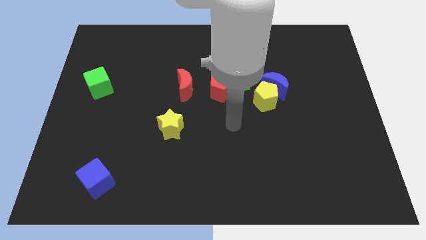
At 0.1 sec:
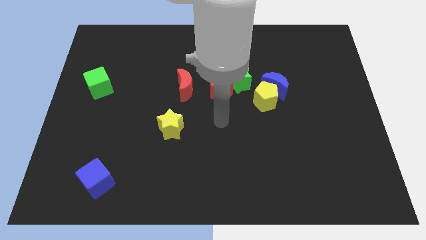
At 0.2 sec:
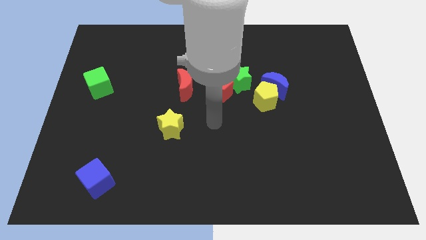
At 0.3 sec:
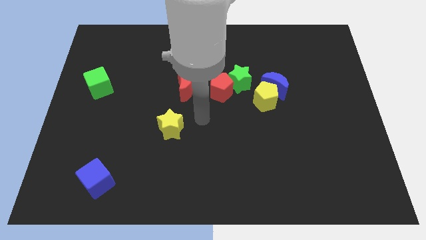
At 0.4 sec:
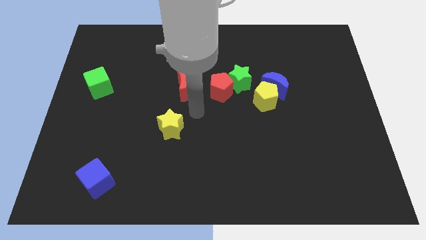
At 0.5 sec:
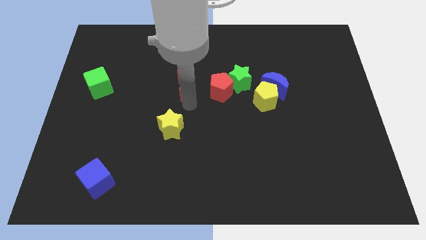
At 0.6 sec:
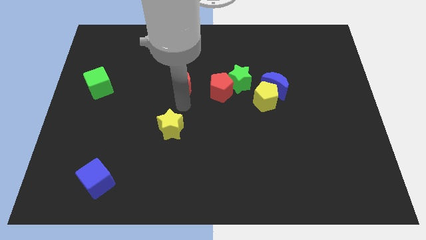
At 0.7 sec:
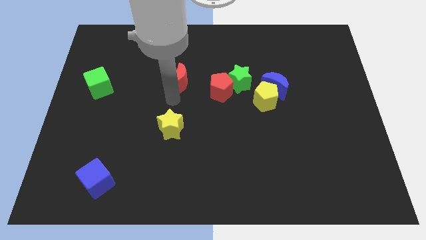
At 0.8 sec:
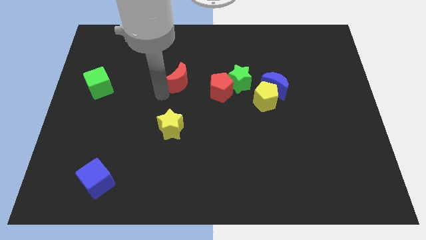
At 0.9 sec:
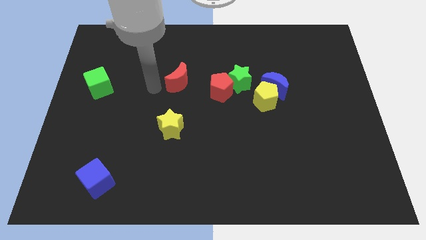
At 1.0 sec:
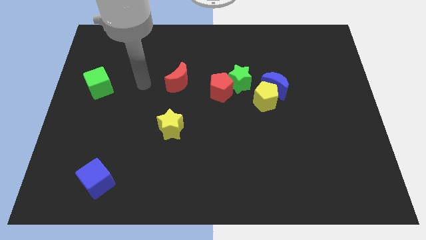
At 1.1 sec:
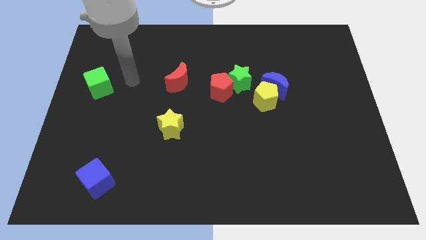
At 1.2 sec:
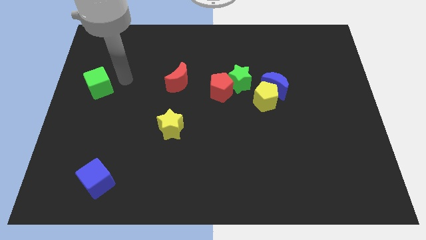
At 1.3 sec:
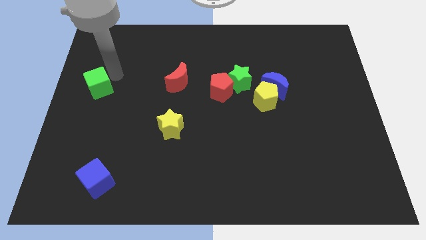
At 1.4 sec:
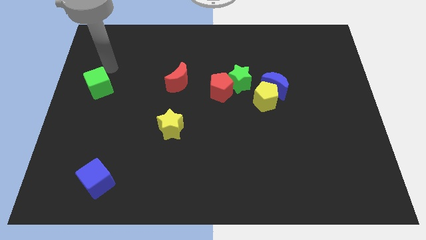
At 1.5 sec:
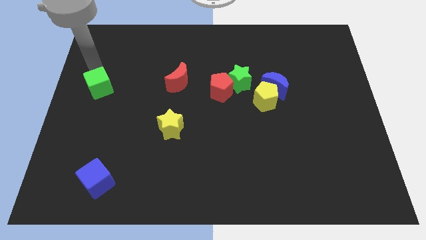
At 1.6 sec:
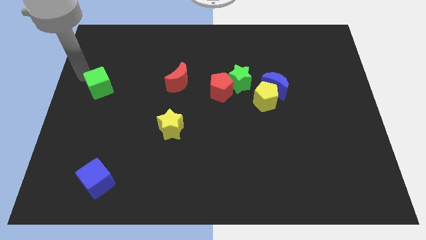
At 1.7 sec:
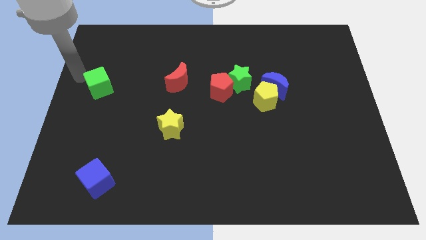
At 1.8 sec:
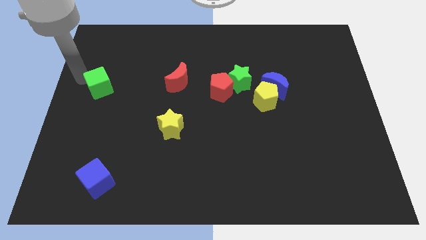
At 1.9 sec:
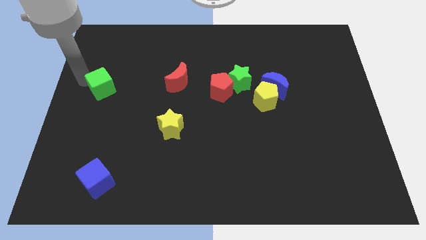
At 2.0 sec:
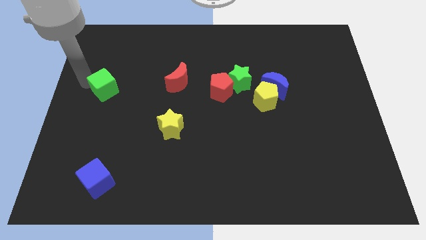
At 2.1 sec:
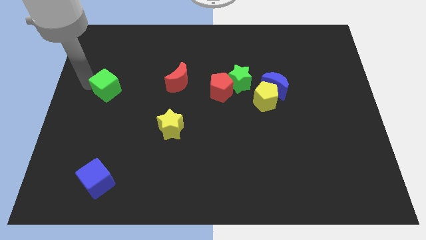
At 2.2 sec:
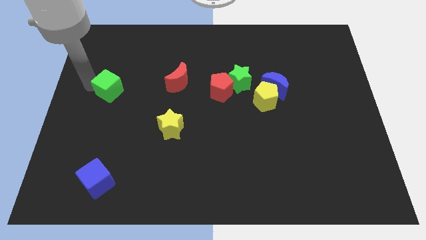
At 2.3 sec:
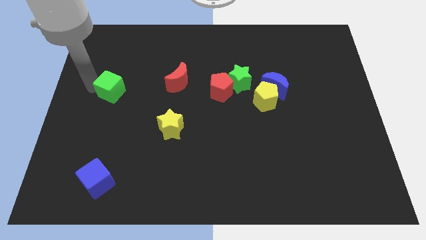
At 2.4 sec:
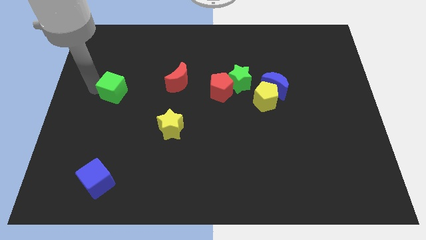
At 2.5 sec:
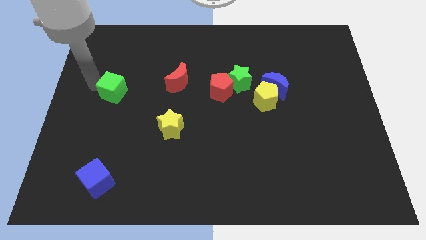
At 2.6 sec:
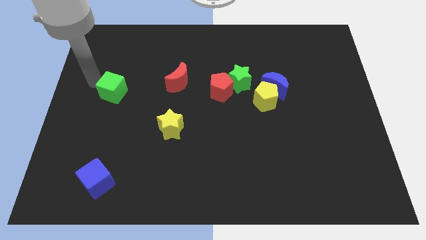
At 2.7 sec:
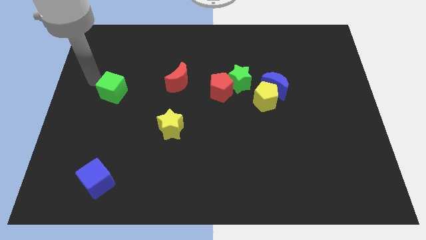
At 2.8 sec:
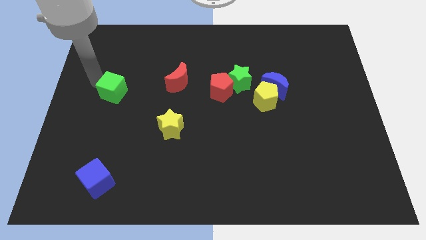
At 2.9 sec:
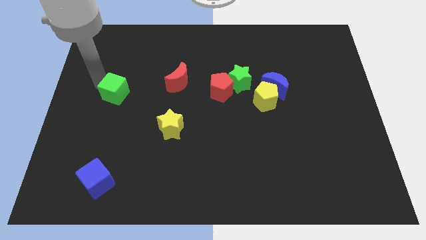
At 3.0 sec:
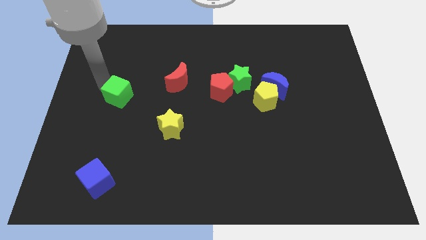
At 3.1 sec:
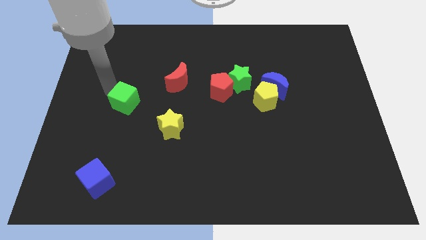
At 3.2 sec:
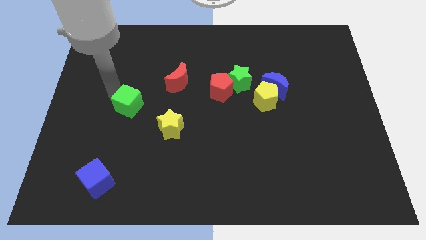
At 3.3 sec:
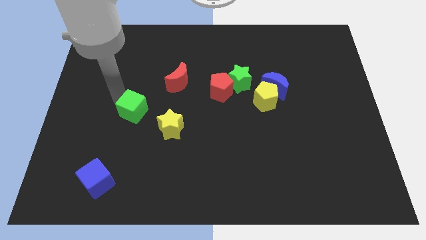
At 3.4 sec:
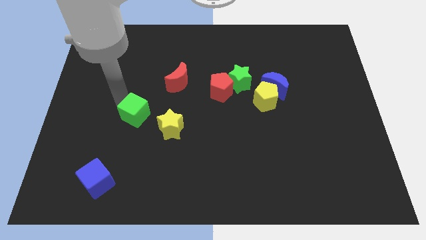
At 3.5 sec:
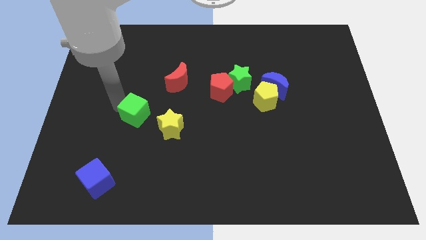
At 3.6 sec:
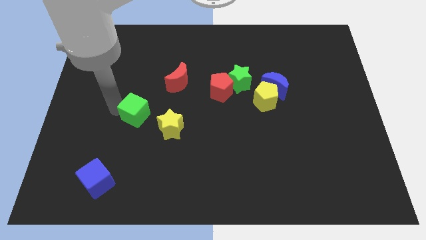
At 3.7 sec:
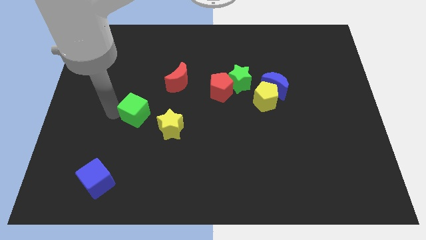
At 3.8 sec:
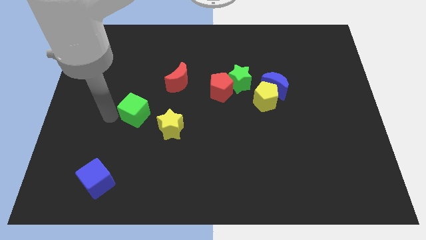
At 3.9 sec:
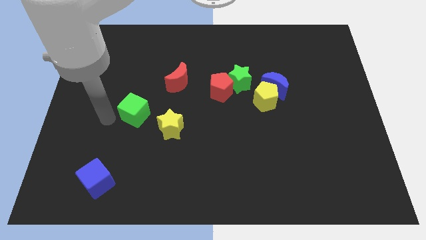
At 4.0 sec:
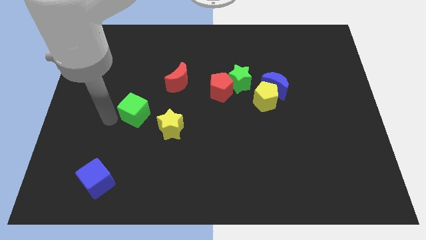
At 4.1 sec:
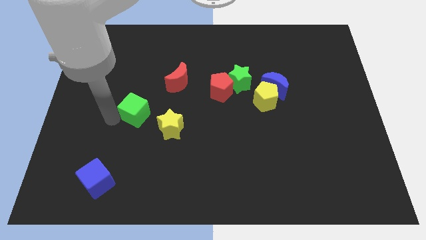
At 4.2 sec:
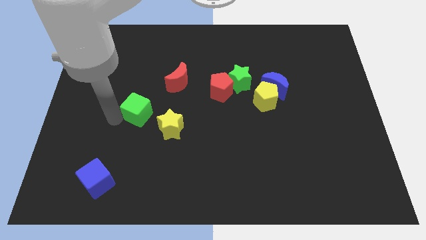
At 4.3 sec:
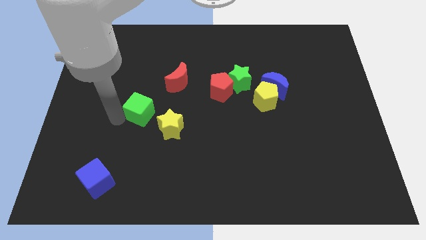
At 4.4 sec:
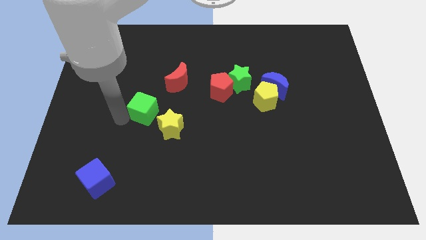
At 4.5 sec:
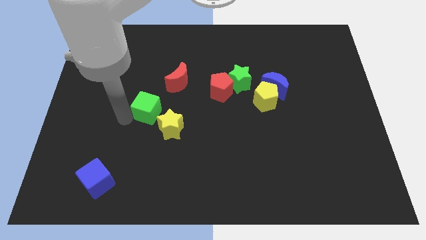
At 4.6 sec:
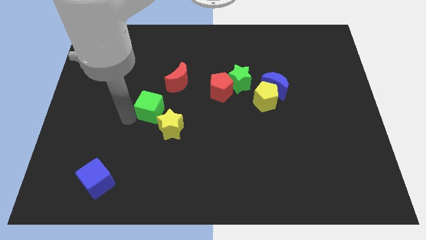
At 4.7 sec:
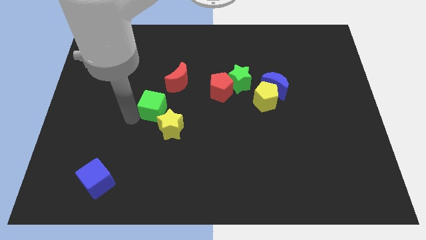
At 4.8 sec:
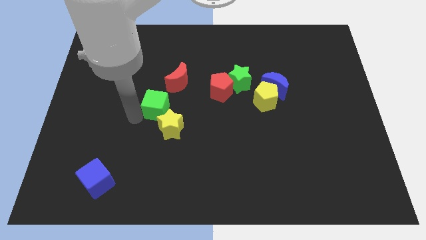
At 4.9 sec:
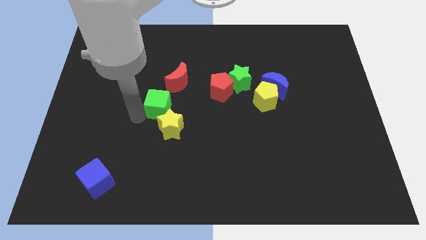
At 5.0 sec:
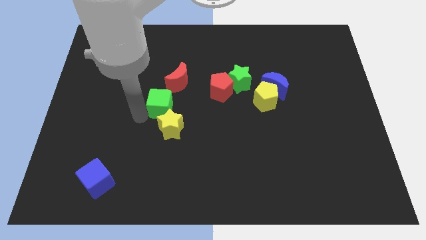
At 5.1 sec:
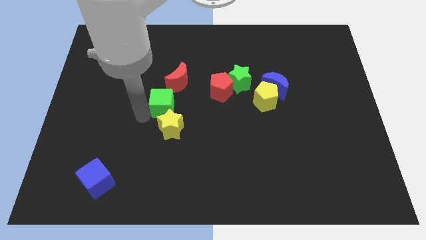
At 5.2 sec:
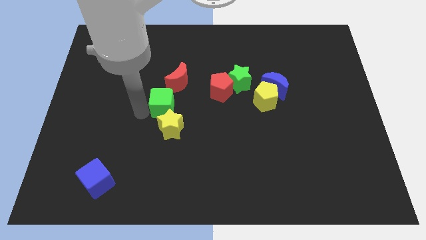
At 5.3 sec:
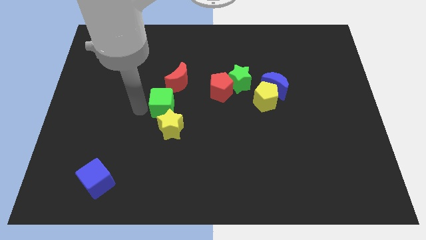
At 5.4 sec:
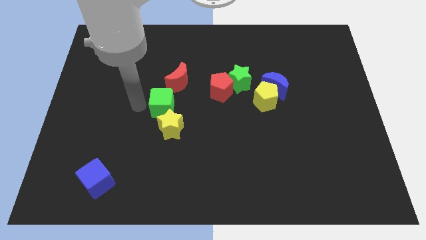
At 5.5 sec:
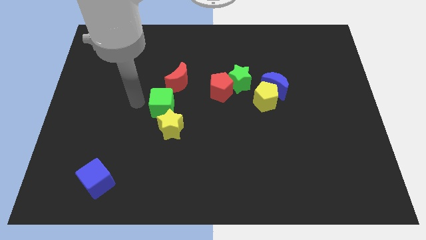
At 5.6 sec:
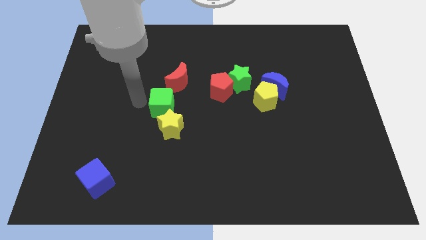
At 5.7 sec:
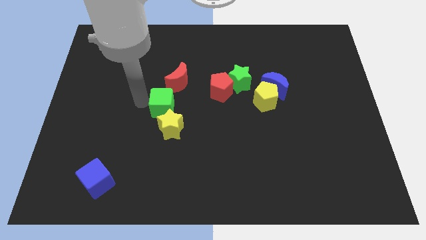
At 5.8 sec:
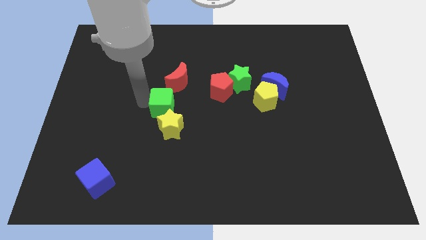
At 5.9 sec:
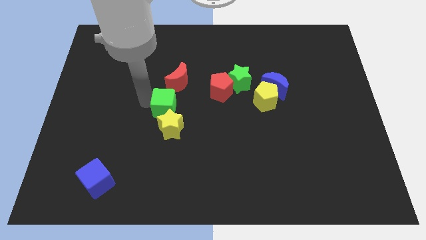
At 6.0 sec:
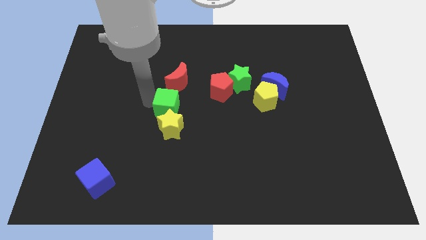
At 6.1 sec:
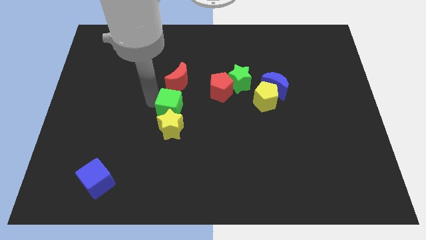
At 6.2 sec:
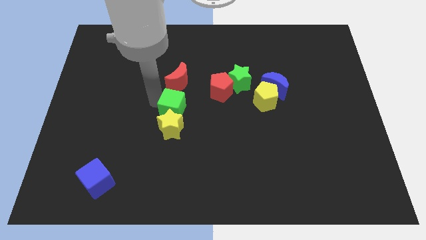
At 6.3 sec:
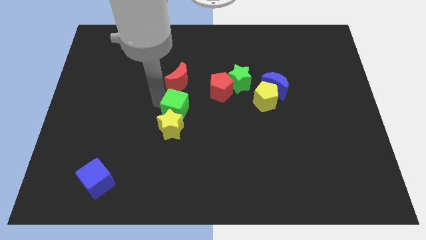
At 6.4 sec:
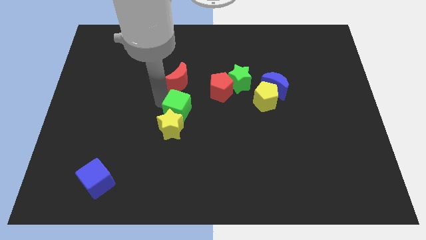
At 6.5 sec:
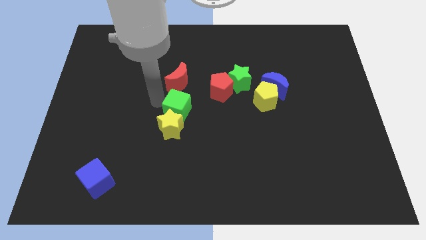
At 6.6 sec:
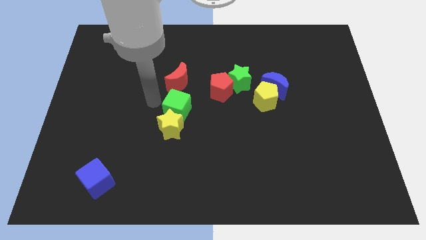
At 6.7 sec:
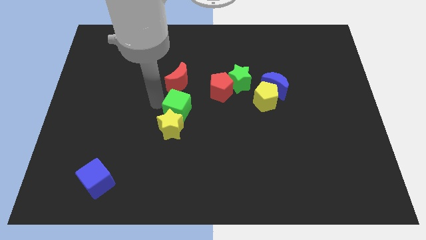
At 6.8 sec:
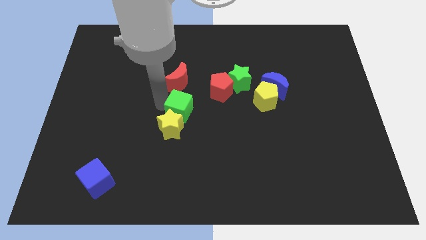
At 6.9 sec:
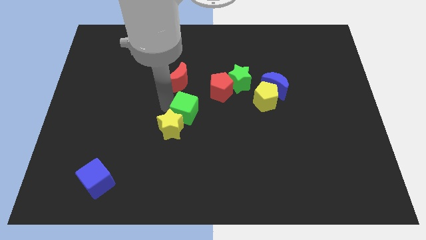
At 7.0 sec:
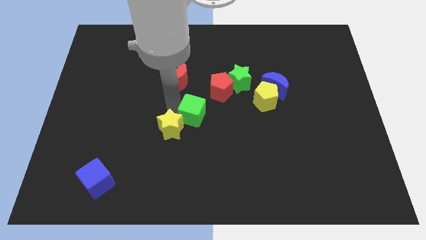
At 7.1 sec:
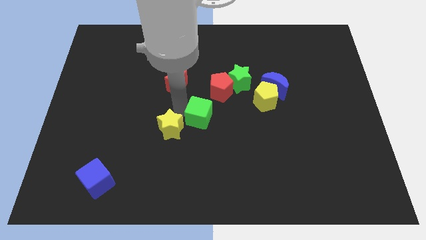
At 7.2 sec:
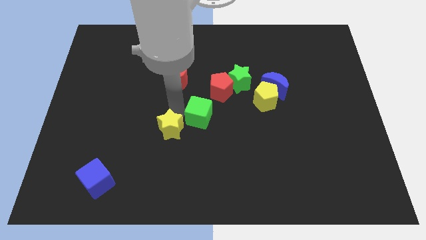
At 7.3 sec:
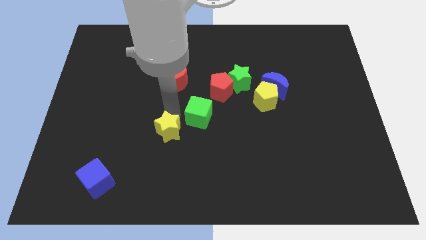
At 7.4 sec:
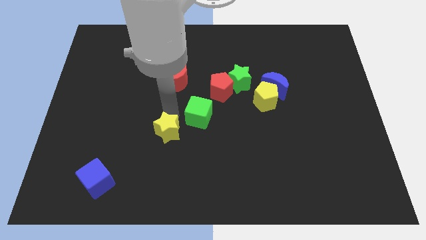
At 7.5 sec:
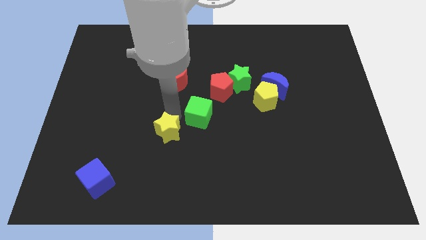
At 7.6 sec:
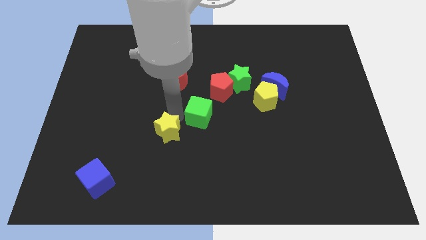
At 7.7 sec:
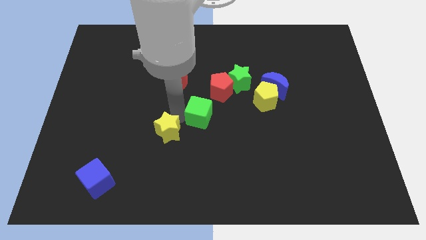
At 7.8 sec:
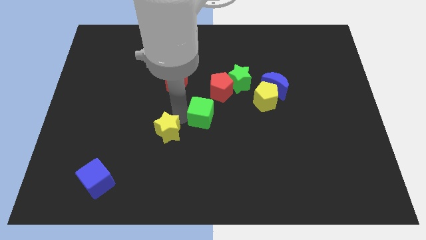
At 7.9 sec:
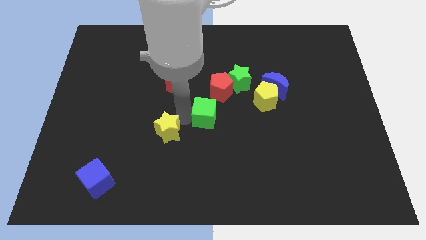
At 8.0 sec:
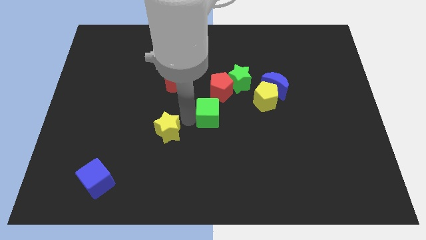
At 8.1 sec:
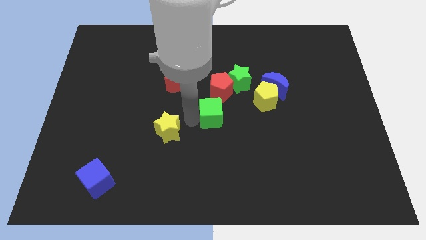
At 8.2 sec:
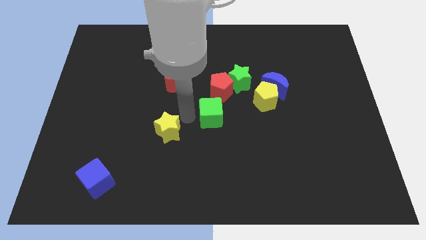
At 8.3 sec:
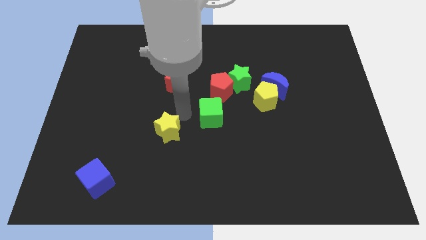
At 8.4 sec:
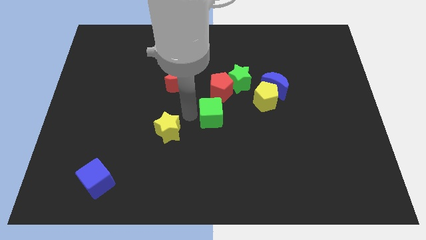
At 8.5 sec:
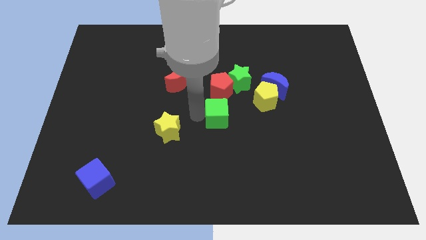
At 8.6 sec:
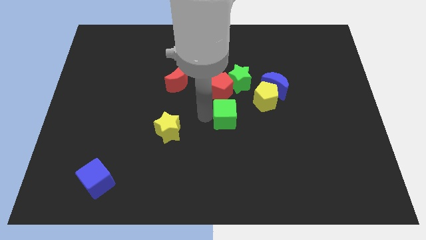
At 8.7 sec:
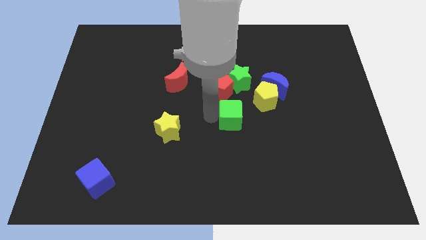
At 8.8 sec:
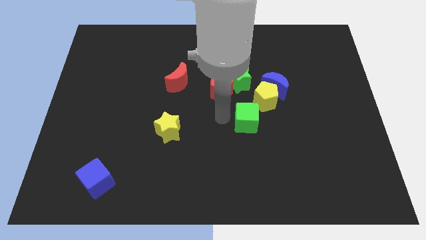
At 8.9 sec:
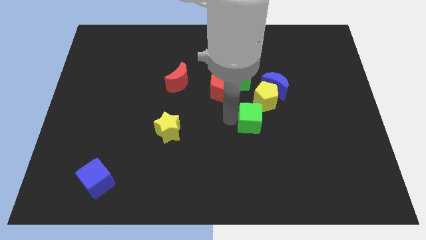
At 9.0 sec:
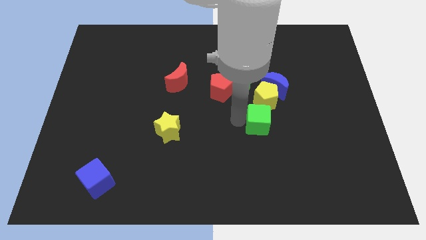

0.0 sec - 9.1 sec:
move the green cube to the bottom of the blue moon
